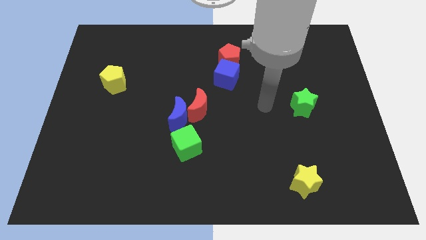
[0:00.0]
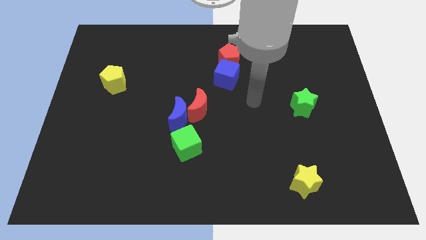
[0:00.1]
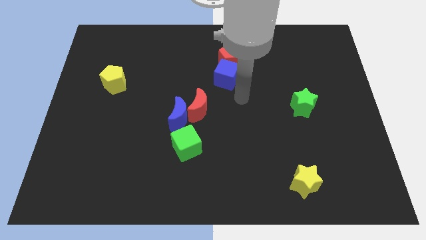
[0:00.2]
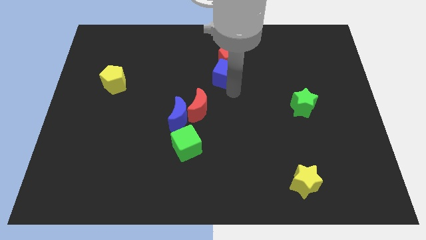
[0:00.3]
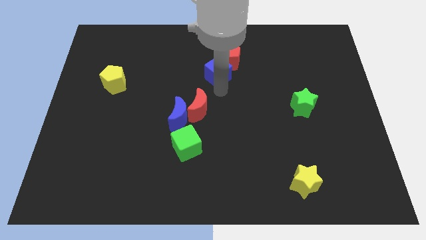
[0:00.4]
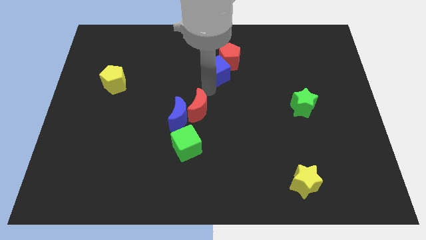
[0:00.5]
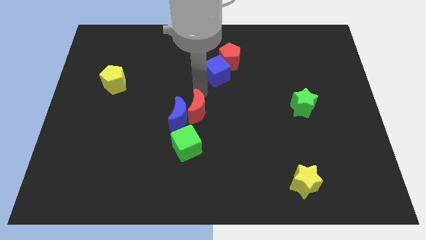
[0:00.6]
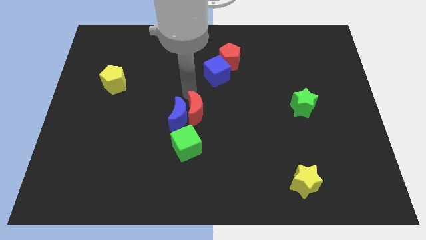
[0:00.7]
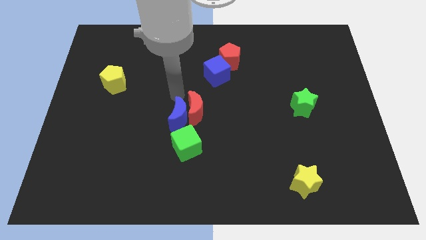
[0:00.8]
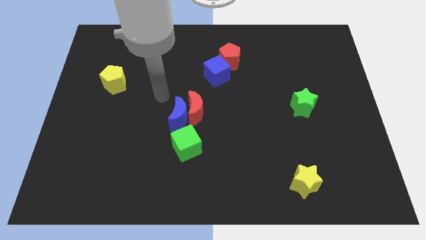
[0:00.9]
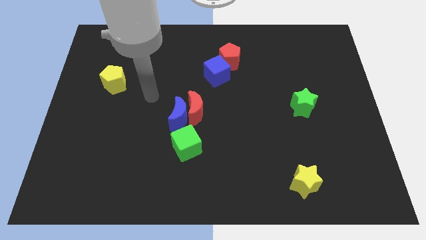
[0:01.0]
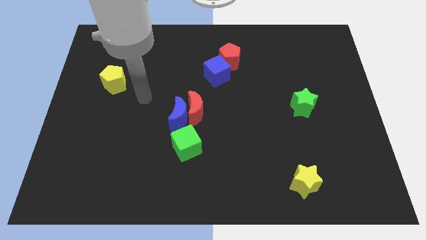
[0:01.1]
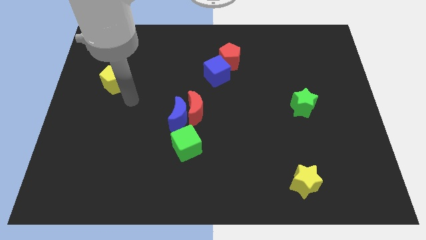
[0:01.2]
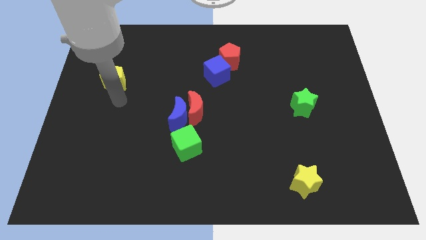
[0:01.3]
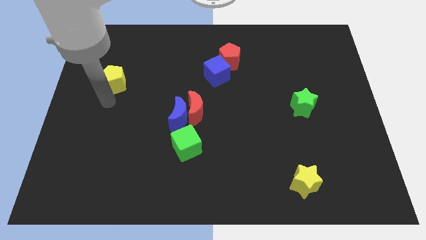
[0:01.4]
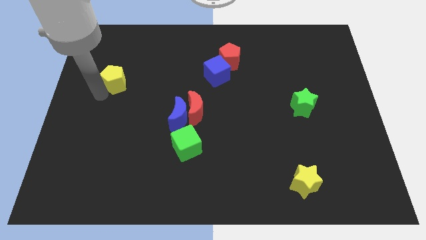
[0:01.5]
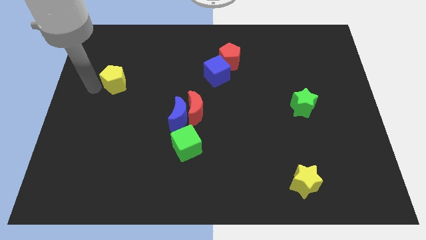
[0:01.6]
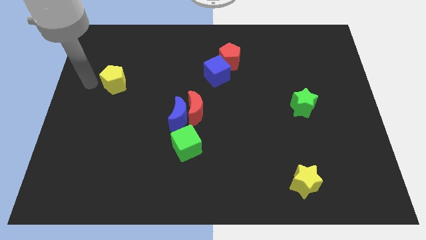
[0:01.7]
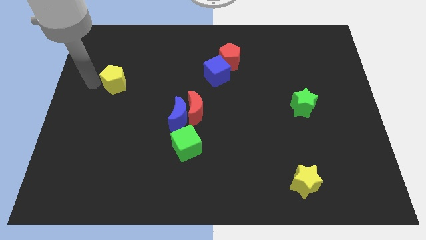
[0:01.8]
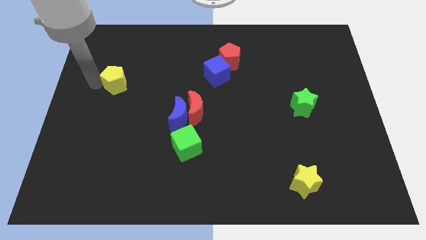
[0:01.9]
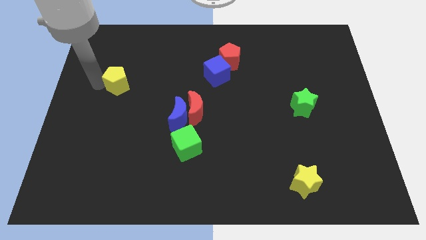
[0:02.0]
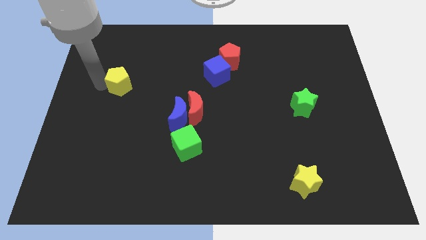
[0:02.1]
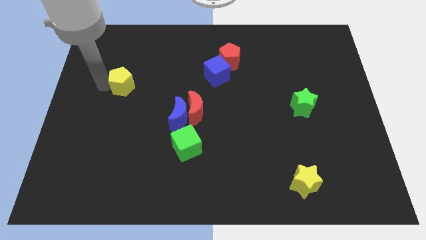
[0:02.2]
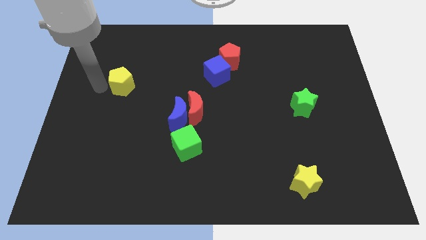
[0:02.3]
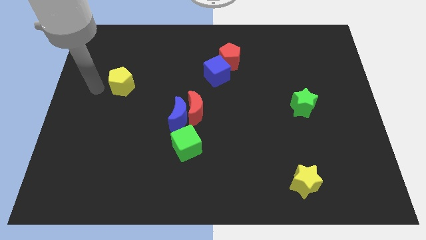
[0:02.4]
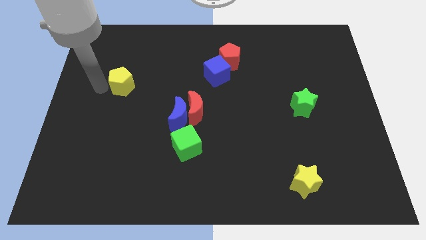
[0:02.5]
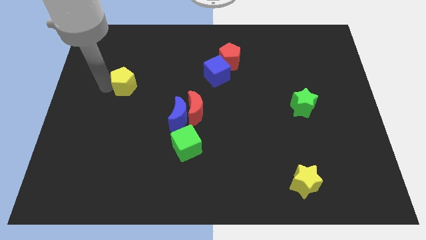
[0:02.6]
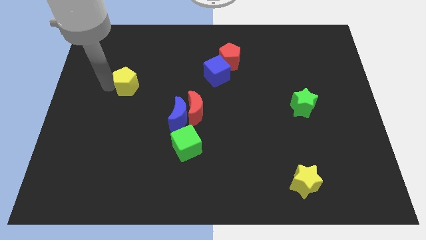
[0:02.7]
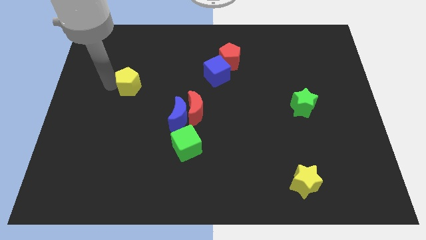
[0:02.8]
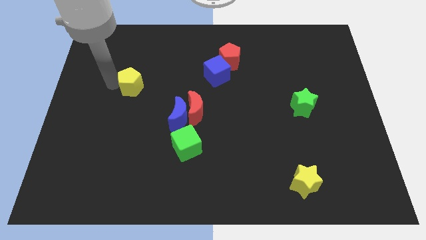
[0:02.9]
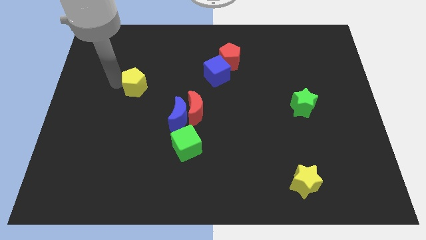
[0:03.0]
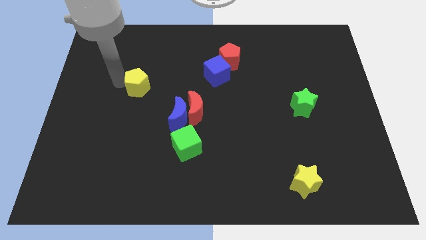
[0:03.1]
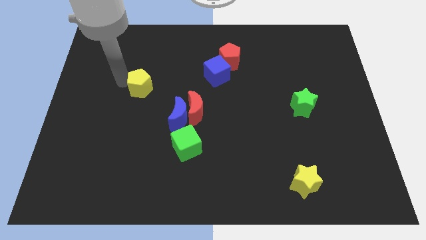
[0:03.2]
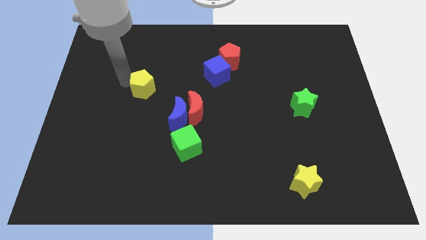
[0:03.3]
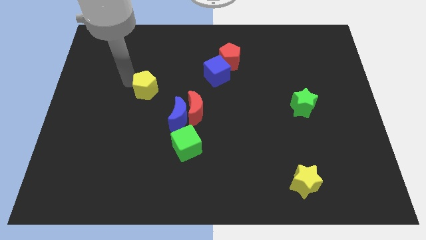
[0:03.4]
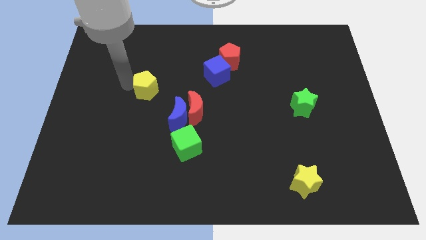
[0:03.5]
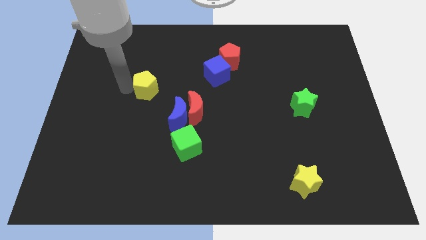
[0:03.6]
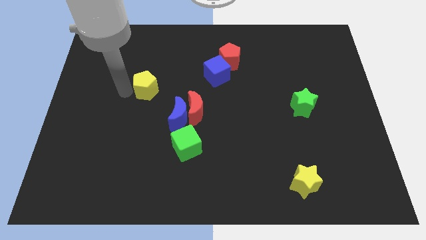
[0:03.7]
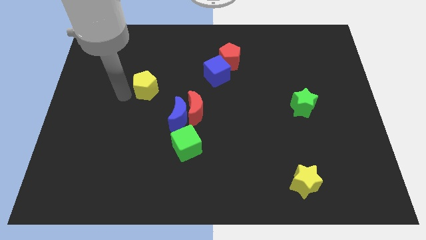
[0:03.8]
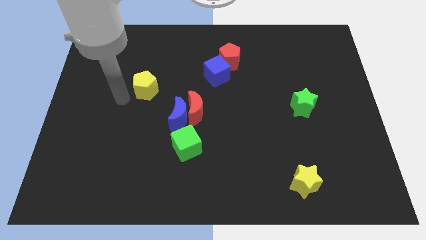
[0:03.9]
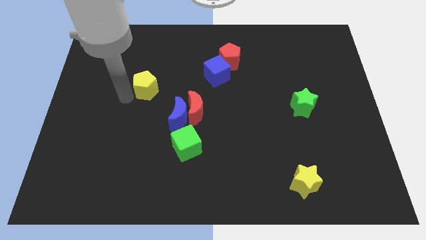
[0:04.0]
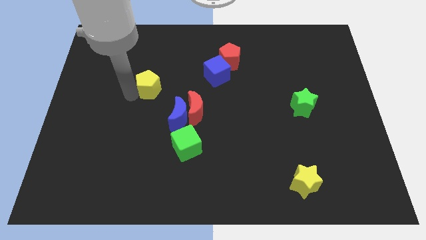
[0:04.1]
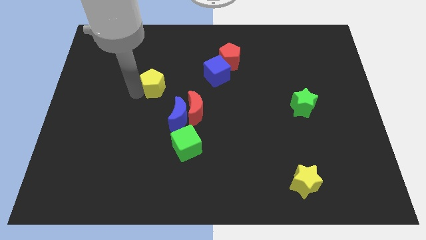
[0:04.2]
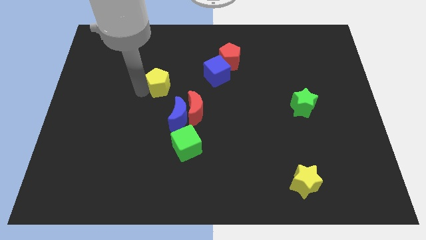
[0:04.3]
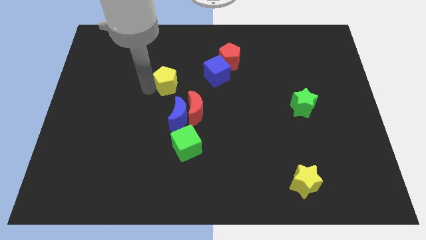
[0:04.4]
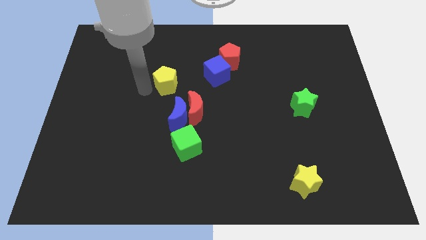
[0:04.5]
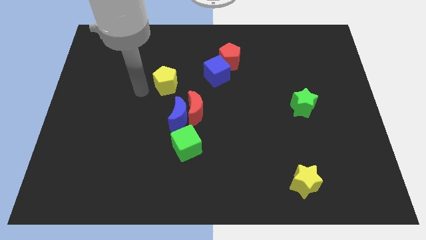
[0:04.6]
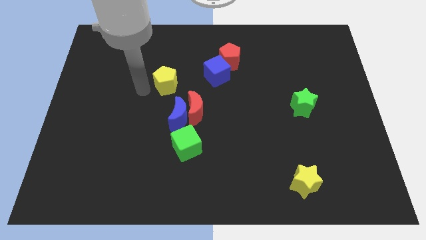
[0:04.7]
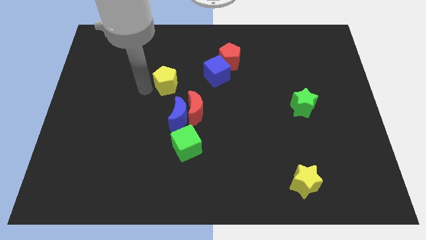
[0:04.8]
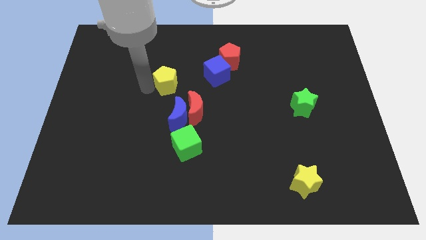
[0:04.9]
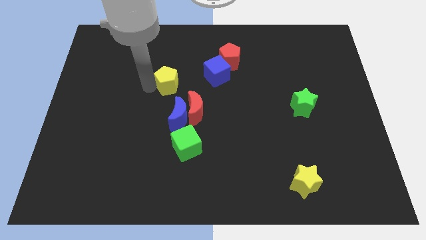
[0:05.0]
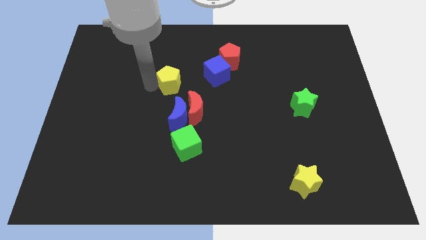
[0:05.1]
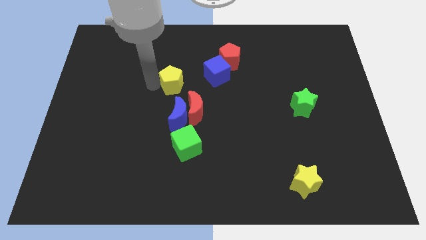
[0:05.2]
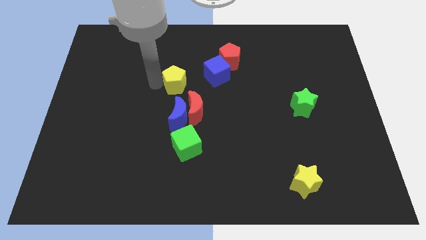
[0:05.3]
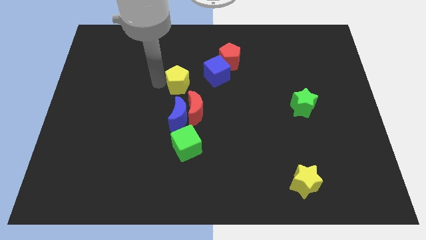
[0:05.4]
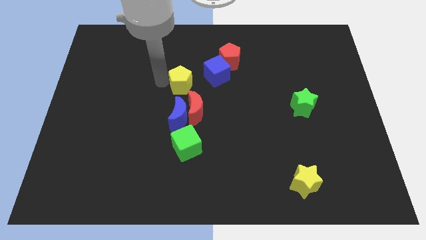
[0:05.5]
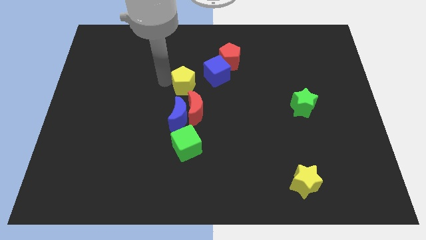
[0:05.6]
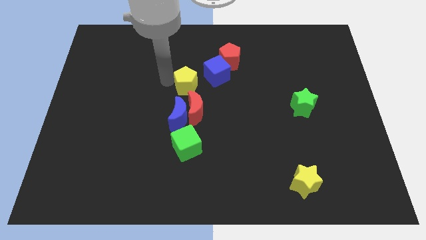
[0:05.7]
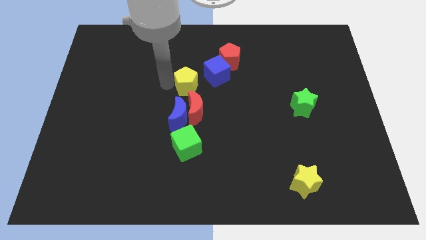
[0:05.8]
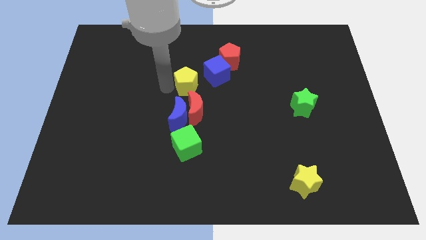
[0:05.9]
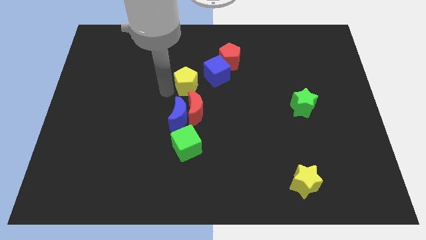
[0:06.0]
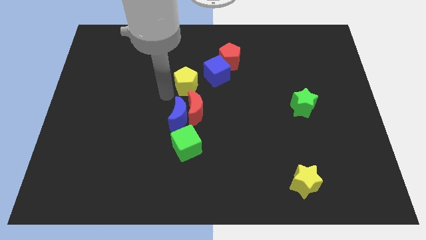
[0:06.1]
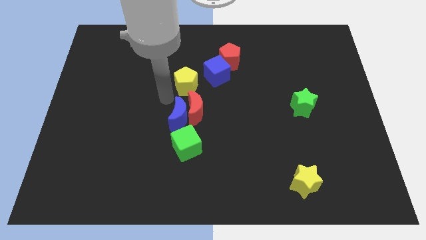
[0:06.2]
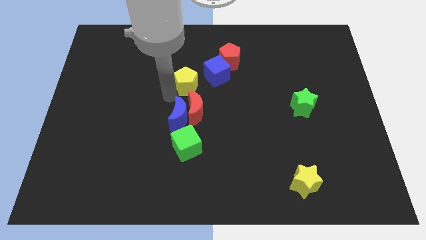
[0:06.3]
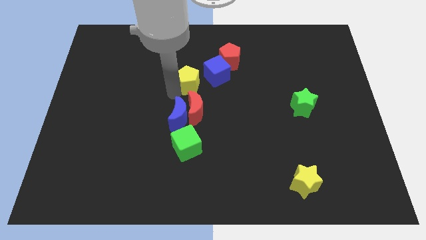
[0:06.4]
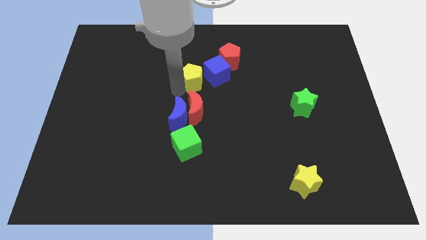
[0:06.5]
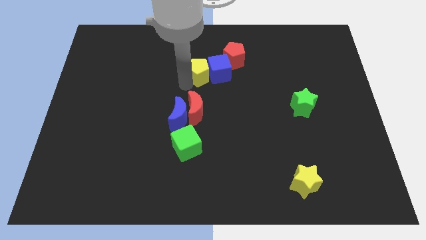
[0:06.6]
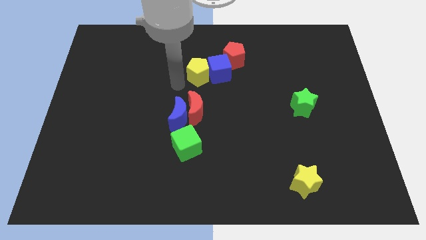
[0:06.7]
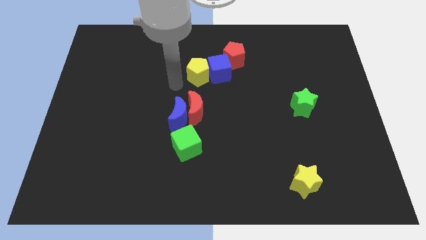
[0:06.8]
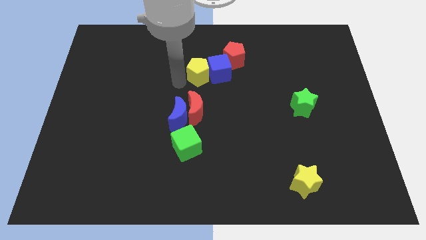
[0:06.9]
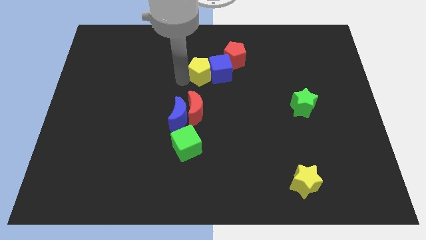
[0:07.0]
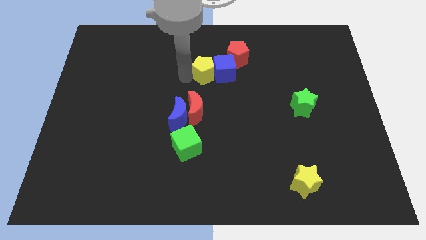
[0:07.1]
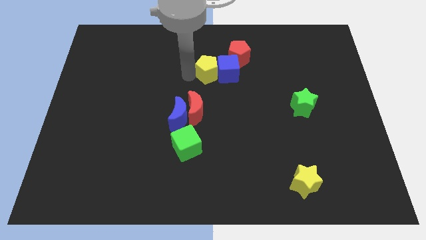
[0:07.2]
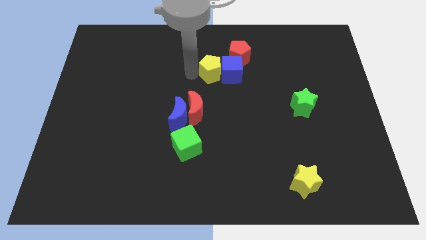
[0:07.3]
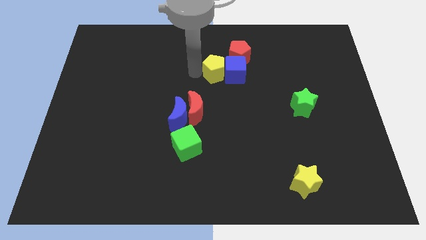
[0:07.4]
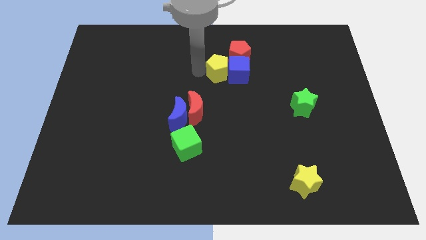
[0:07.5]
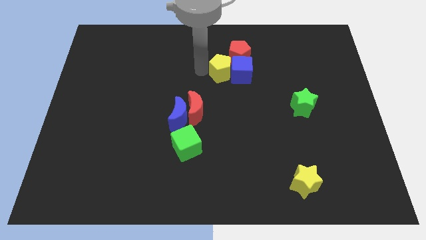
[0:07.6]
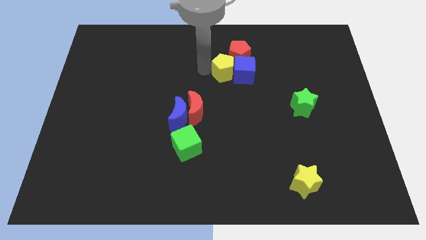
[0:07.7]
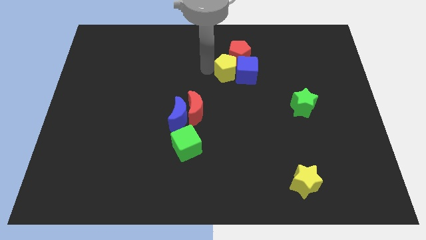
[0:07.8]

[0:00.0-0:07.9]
put the yellow pentagon towards the red pentagon
